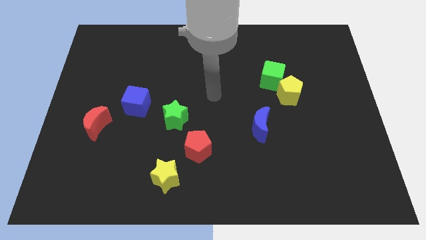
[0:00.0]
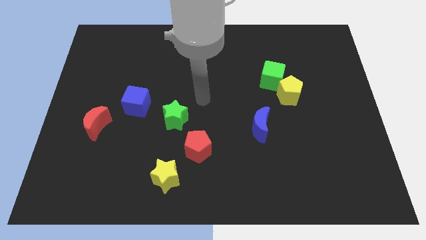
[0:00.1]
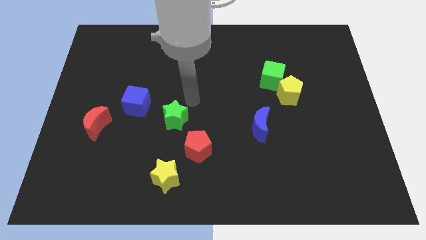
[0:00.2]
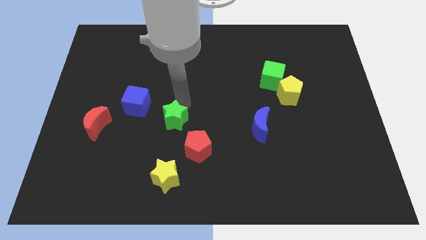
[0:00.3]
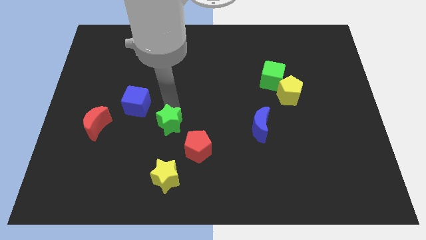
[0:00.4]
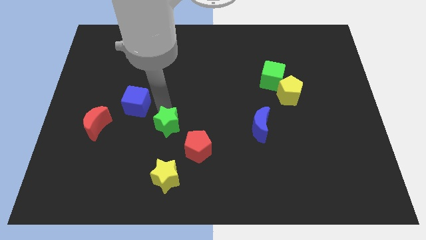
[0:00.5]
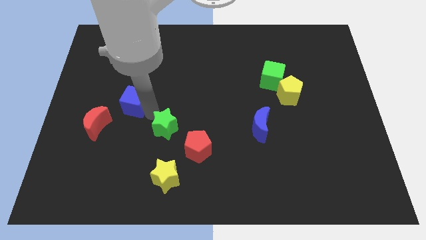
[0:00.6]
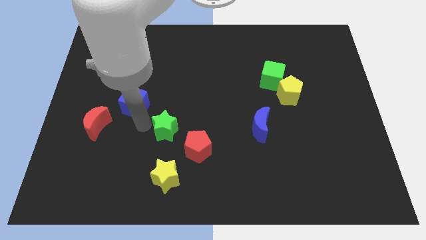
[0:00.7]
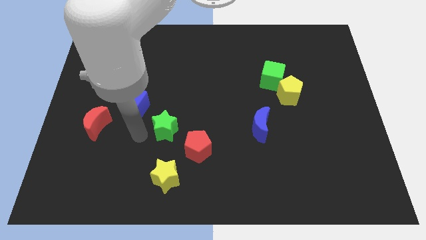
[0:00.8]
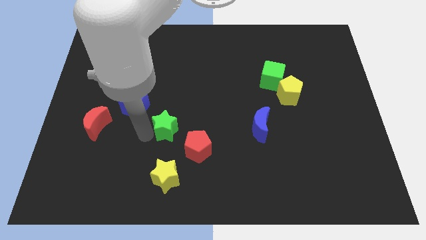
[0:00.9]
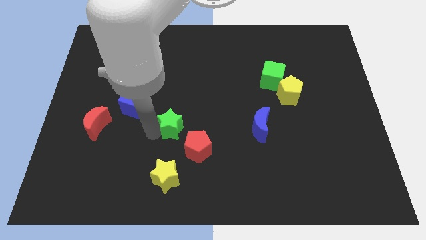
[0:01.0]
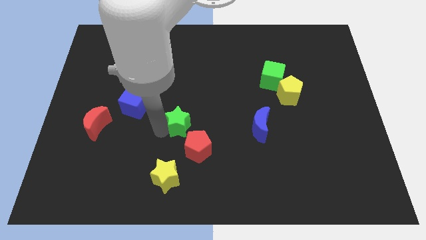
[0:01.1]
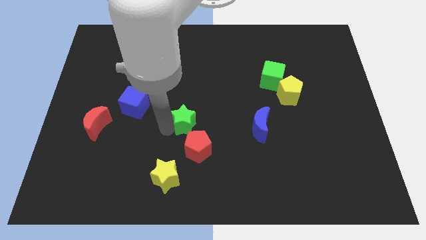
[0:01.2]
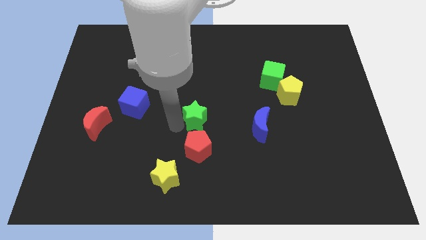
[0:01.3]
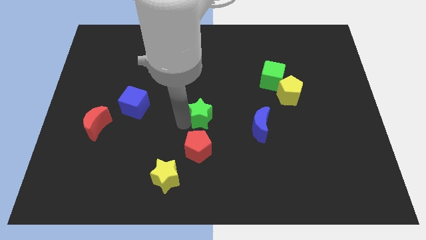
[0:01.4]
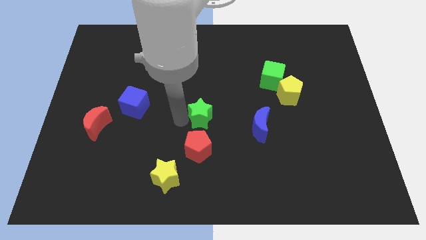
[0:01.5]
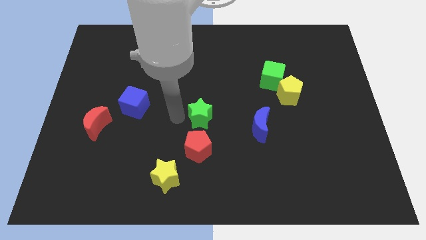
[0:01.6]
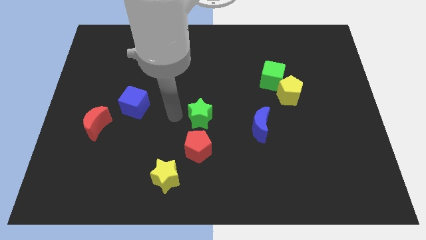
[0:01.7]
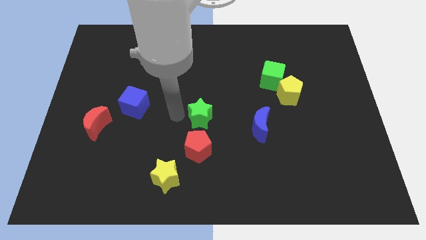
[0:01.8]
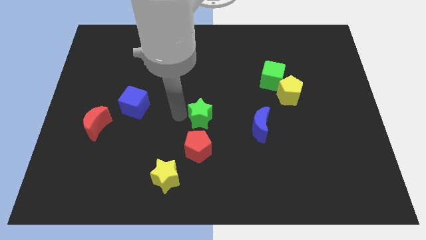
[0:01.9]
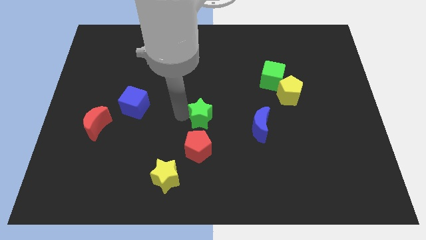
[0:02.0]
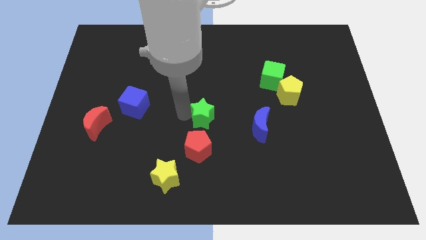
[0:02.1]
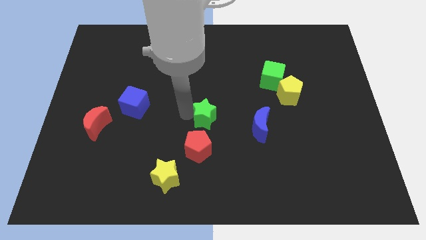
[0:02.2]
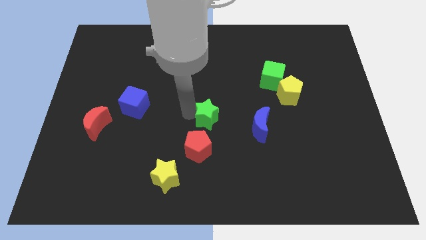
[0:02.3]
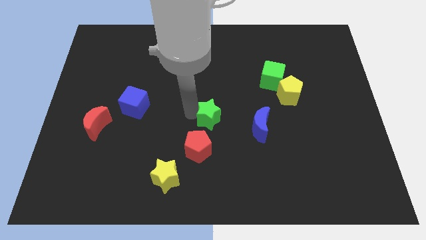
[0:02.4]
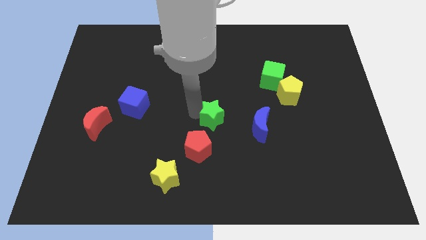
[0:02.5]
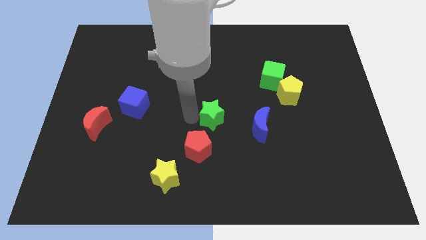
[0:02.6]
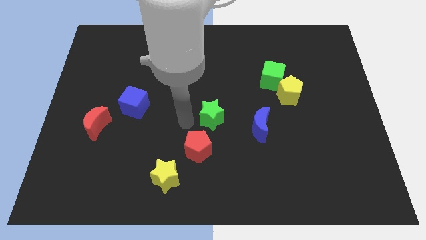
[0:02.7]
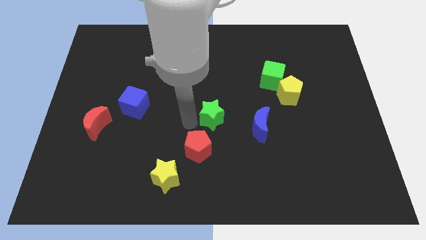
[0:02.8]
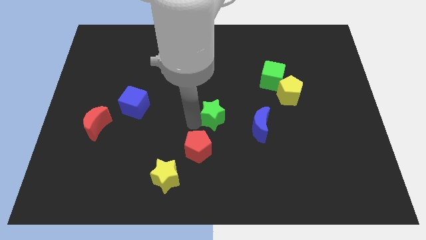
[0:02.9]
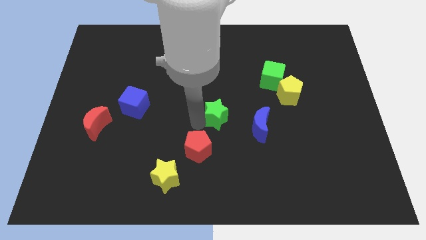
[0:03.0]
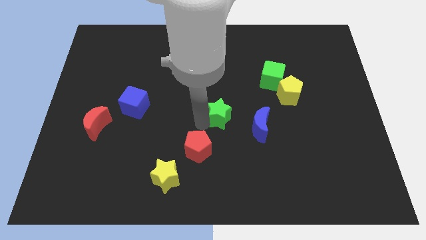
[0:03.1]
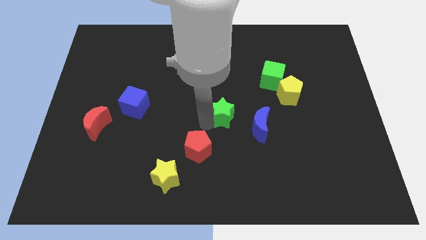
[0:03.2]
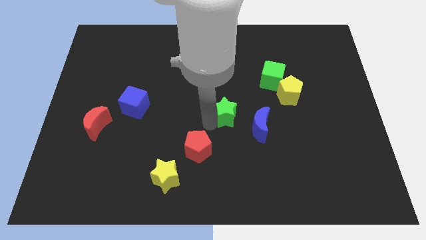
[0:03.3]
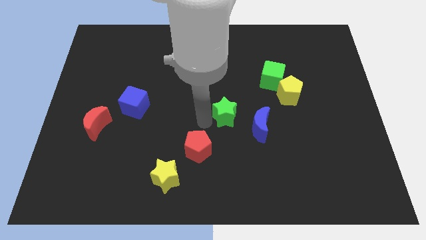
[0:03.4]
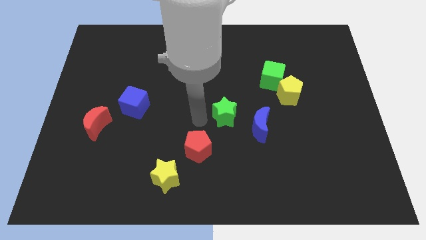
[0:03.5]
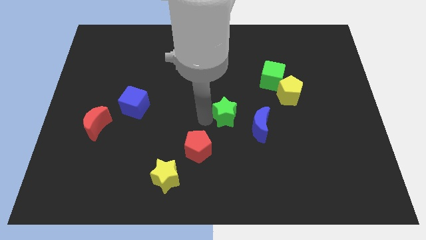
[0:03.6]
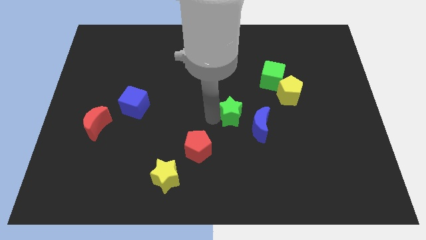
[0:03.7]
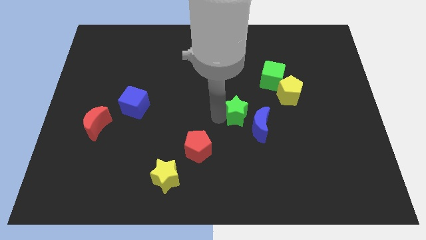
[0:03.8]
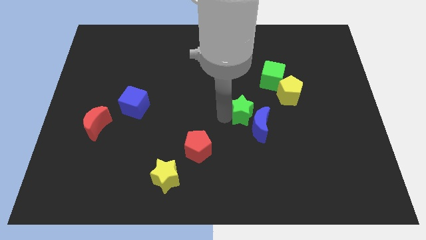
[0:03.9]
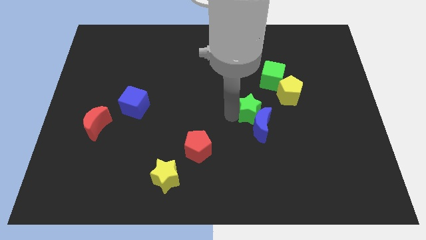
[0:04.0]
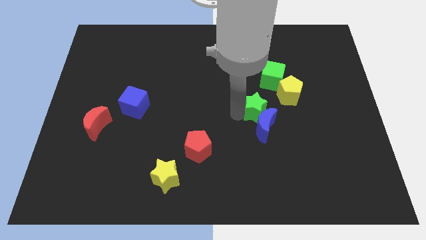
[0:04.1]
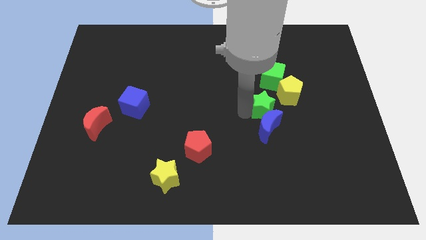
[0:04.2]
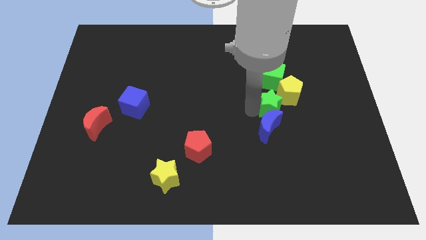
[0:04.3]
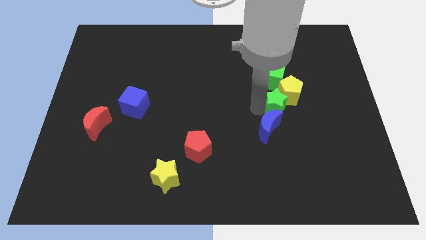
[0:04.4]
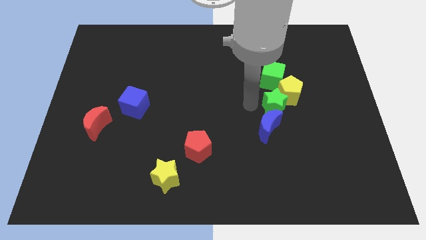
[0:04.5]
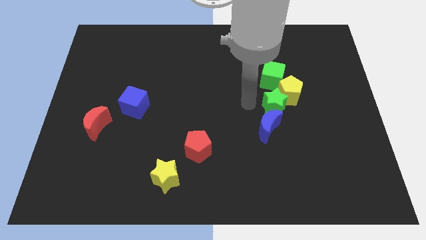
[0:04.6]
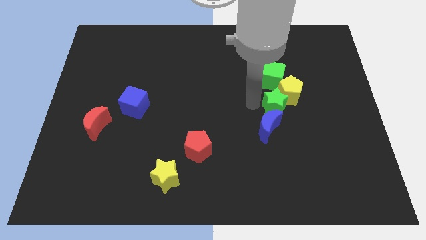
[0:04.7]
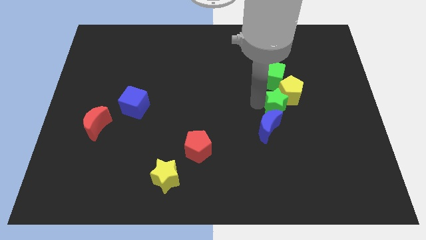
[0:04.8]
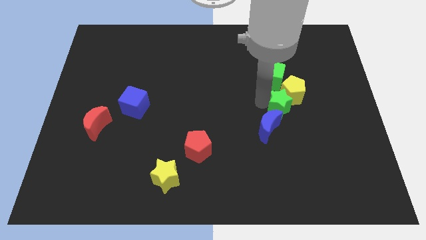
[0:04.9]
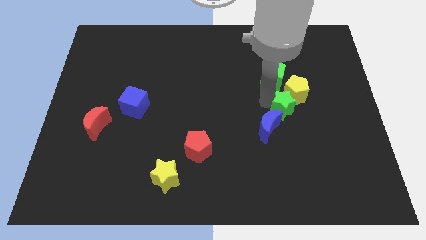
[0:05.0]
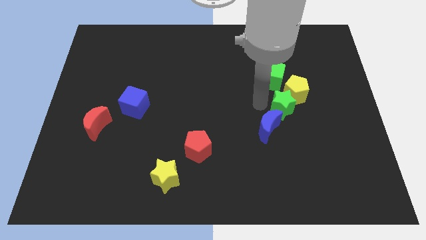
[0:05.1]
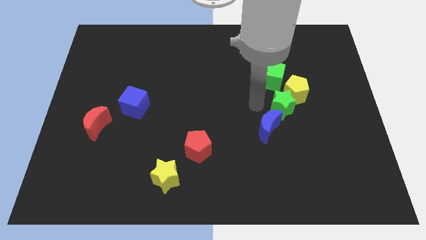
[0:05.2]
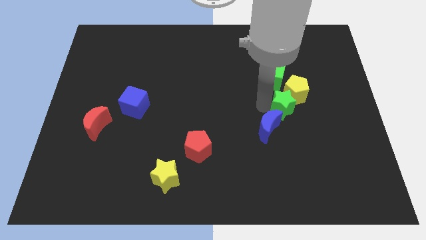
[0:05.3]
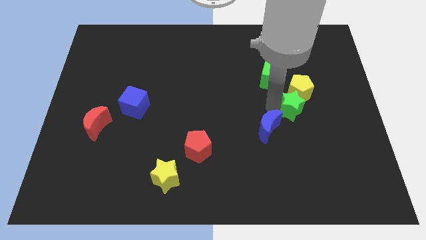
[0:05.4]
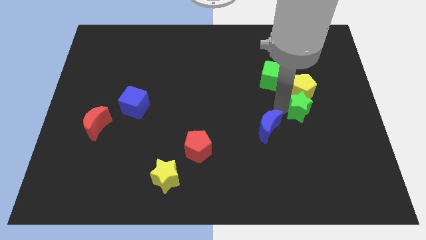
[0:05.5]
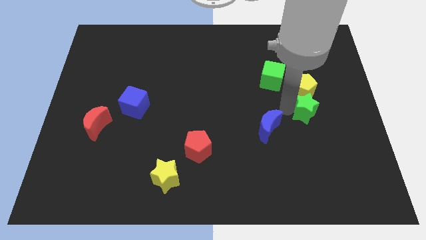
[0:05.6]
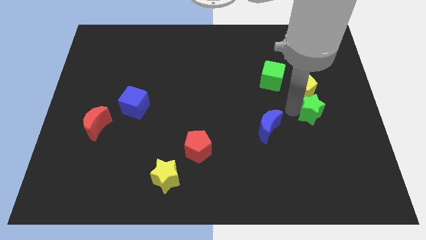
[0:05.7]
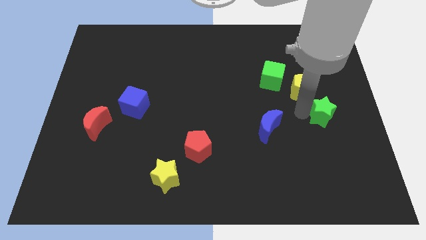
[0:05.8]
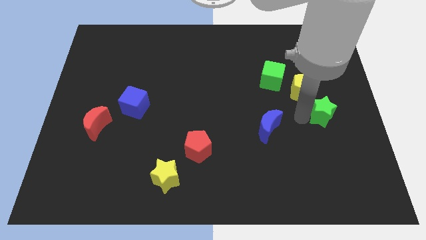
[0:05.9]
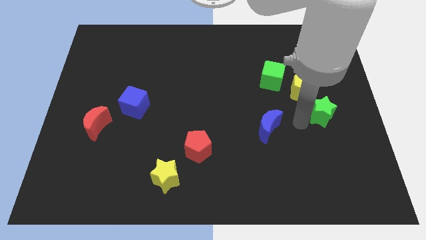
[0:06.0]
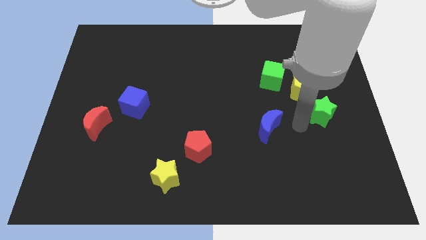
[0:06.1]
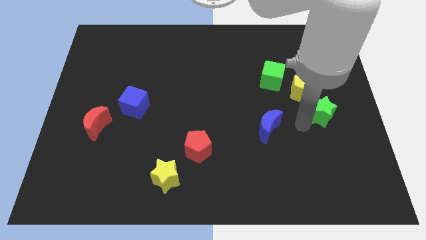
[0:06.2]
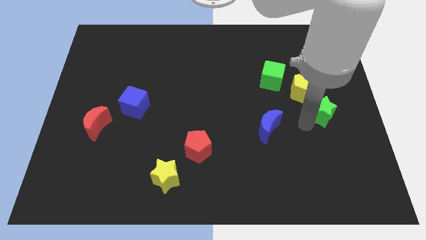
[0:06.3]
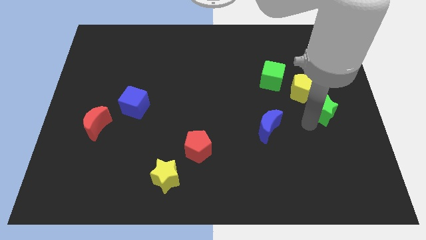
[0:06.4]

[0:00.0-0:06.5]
slide the green star to the center right

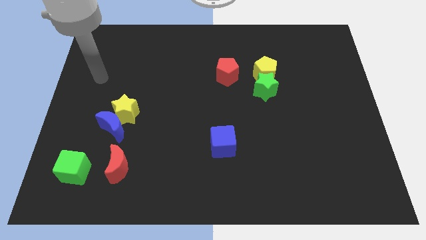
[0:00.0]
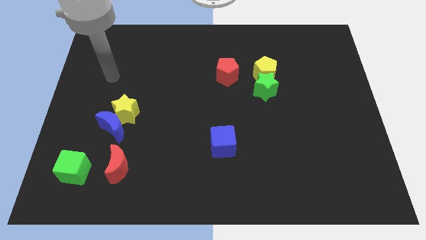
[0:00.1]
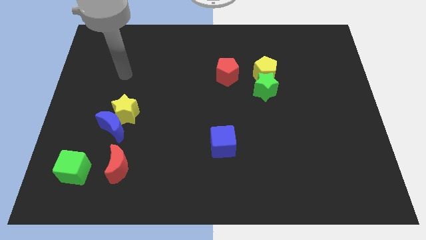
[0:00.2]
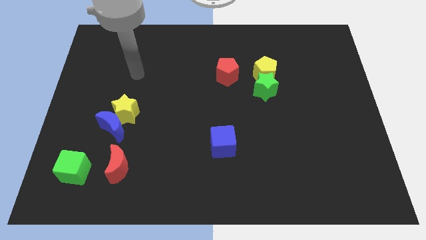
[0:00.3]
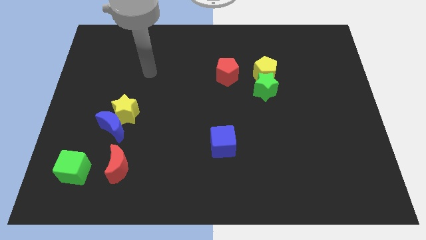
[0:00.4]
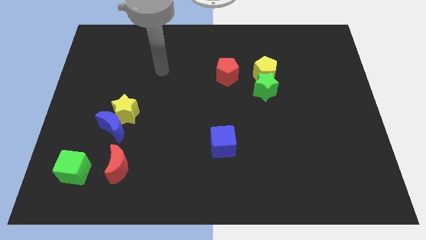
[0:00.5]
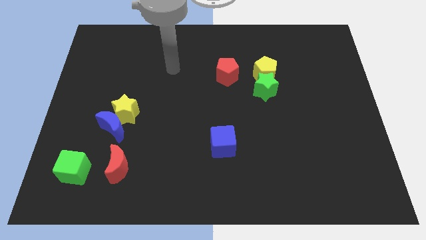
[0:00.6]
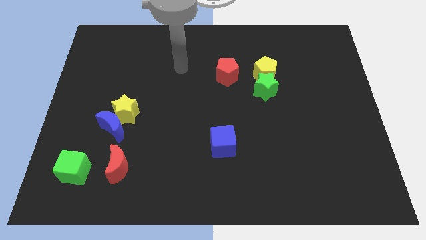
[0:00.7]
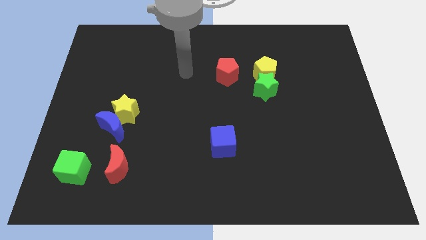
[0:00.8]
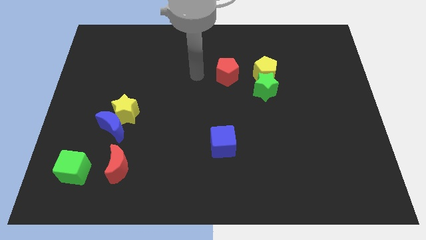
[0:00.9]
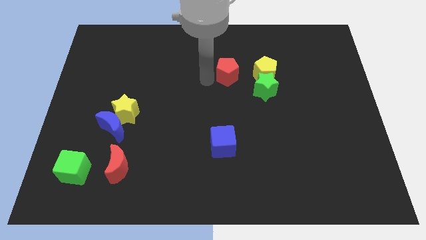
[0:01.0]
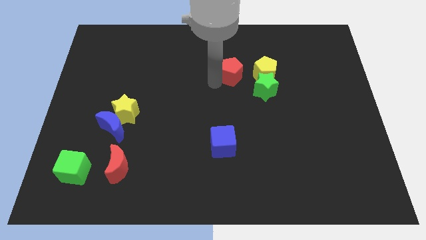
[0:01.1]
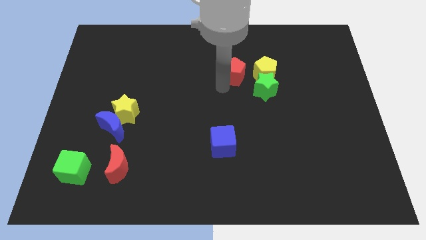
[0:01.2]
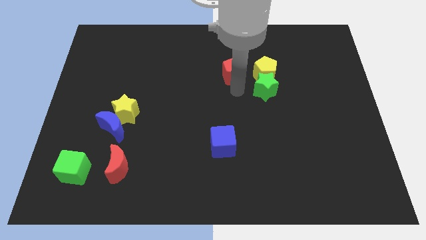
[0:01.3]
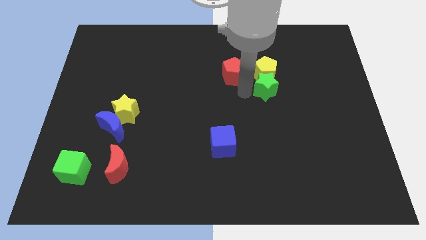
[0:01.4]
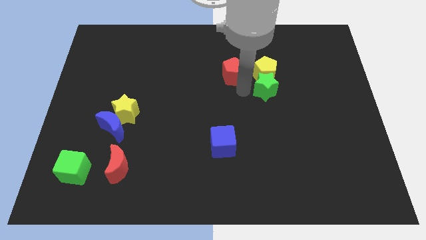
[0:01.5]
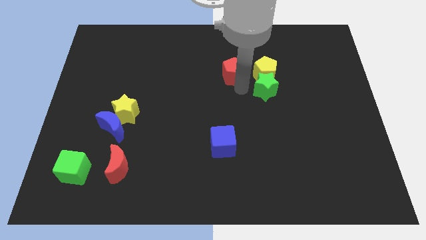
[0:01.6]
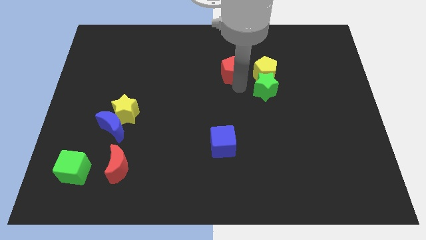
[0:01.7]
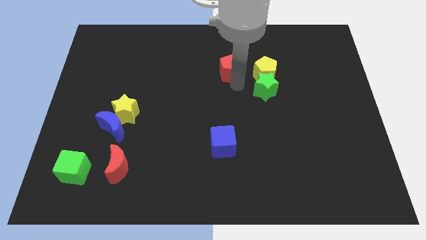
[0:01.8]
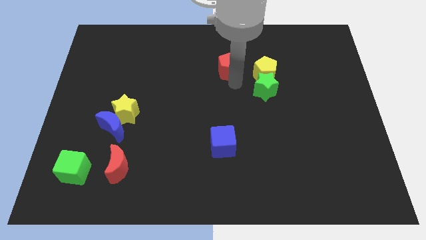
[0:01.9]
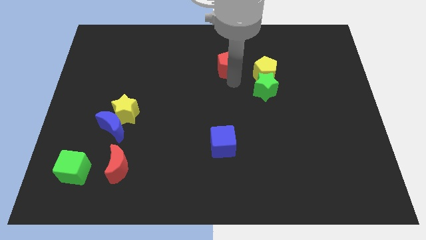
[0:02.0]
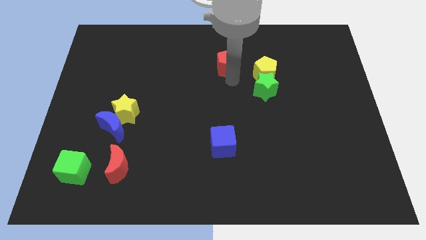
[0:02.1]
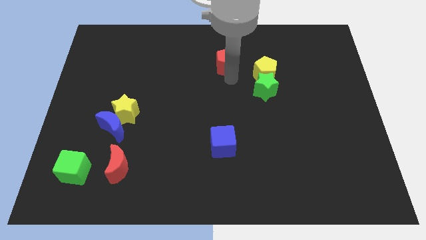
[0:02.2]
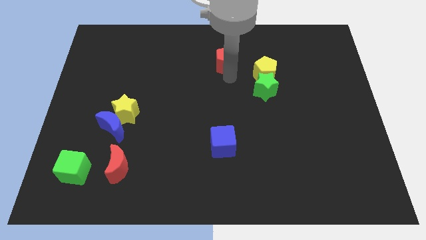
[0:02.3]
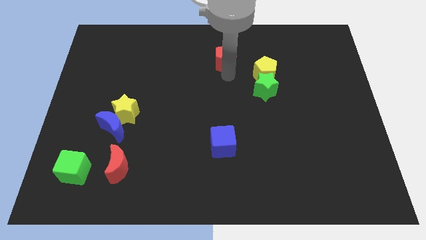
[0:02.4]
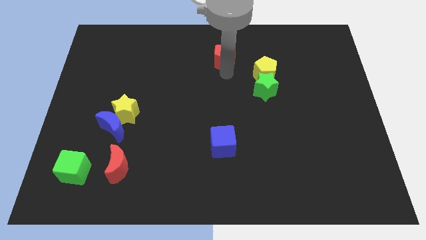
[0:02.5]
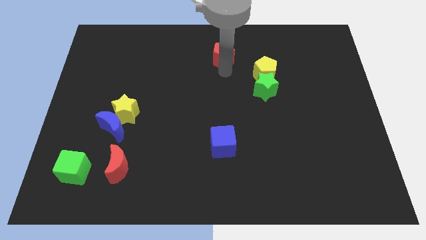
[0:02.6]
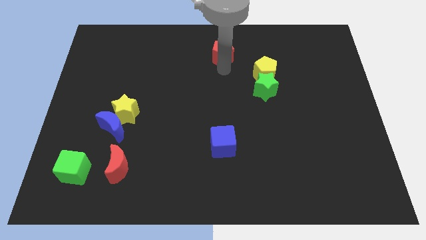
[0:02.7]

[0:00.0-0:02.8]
slide the red pentagon to the top side
